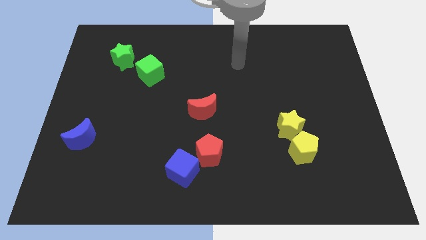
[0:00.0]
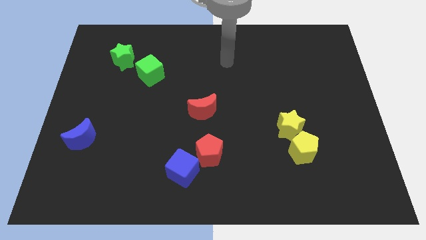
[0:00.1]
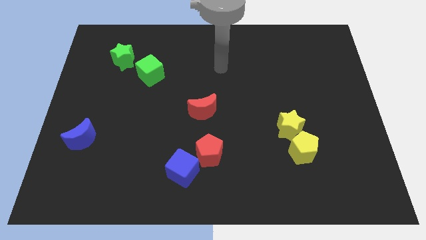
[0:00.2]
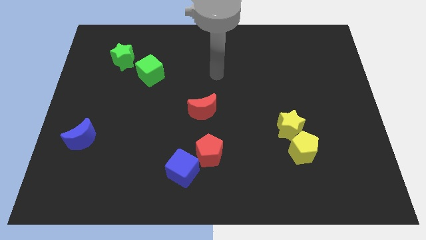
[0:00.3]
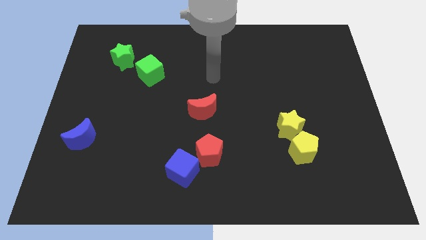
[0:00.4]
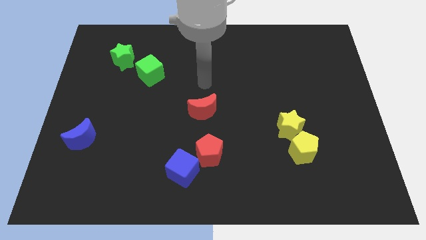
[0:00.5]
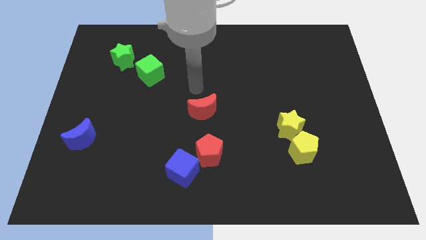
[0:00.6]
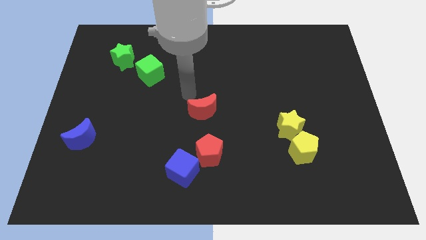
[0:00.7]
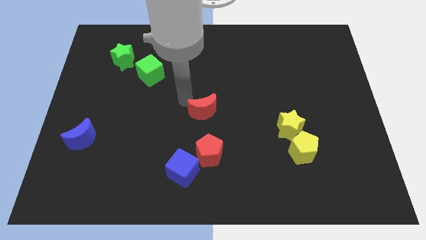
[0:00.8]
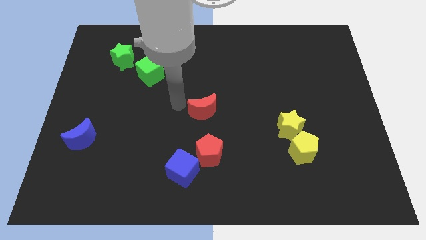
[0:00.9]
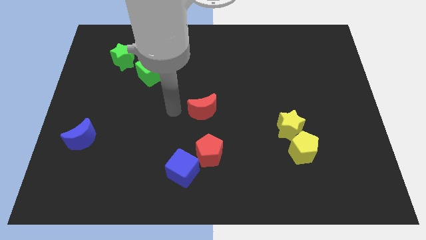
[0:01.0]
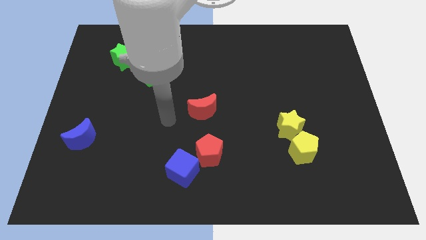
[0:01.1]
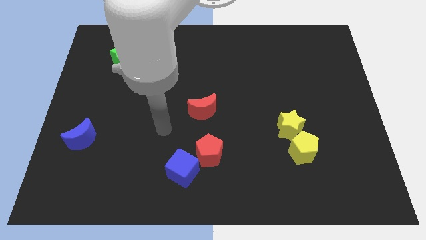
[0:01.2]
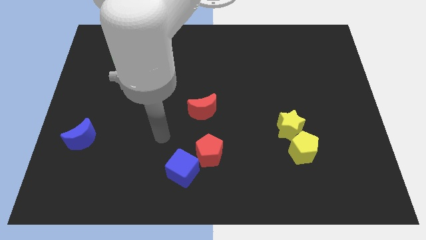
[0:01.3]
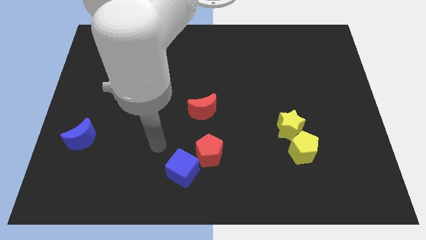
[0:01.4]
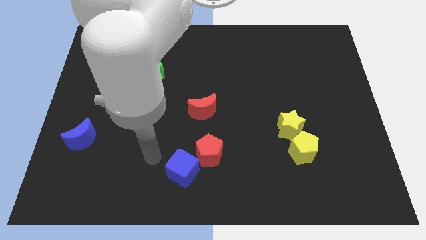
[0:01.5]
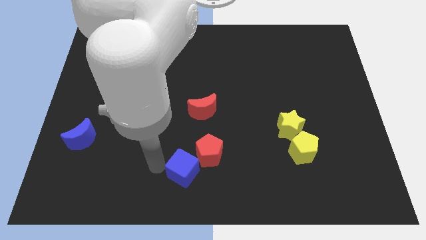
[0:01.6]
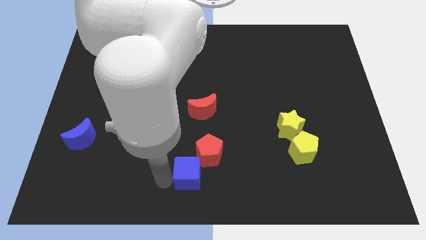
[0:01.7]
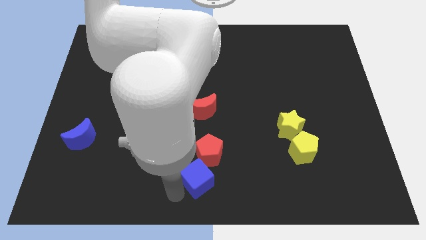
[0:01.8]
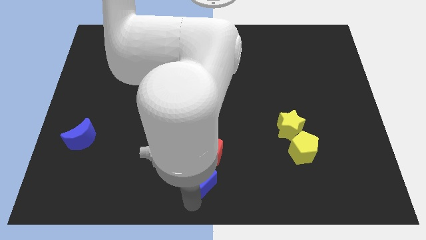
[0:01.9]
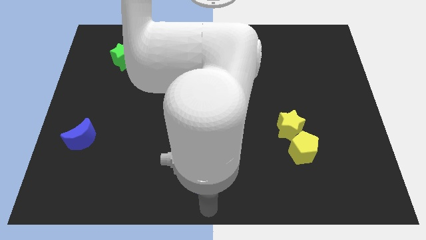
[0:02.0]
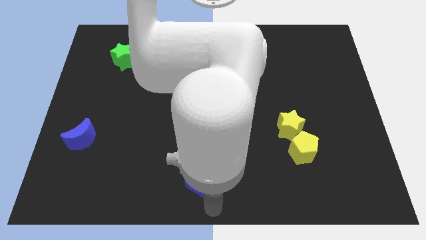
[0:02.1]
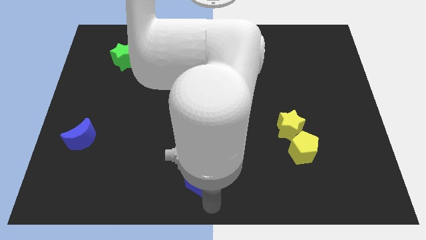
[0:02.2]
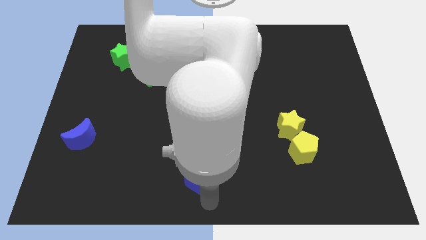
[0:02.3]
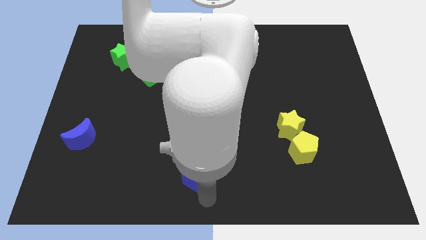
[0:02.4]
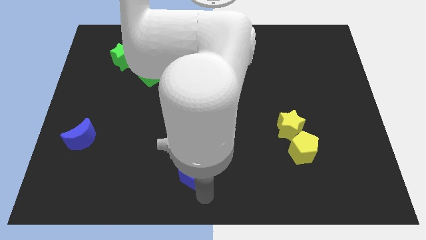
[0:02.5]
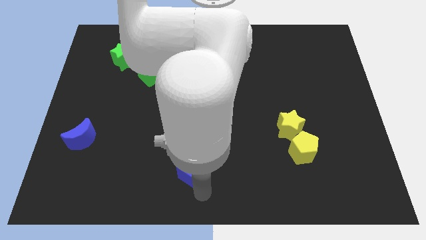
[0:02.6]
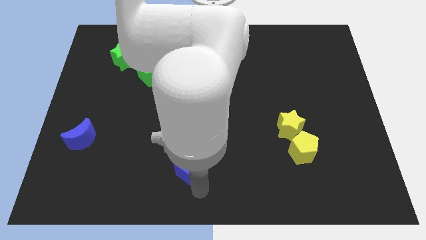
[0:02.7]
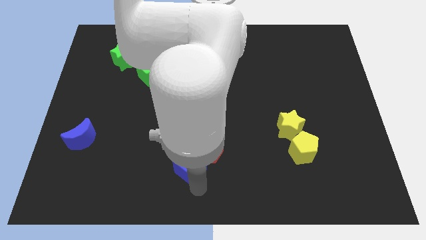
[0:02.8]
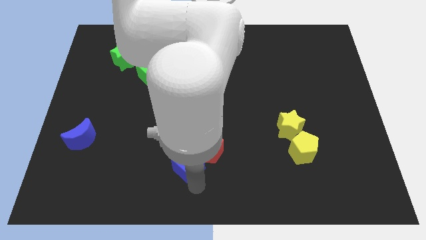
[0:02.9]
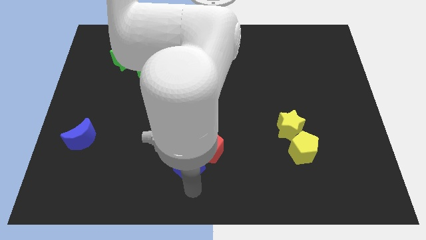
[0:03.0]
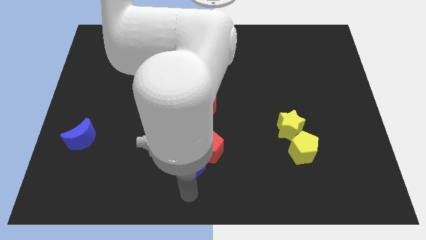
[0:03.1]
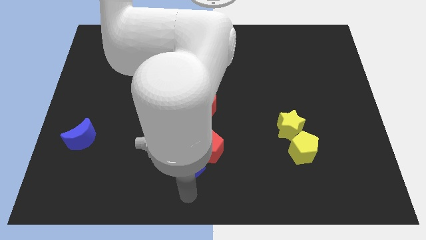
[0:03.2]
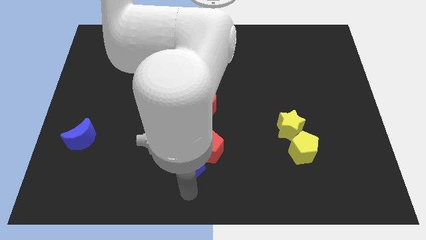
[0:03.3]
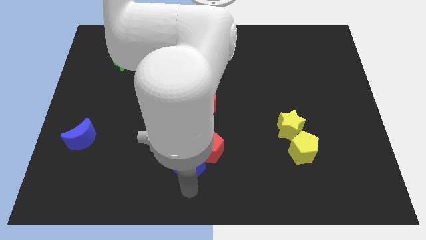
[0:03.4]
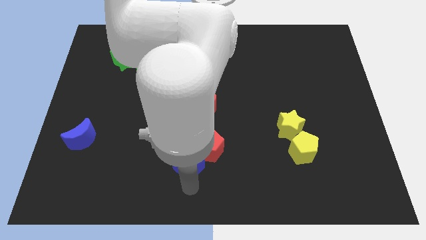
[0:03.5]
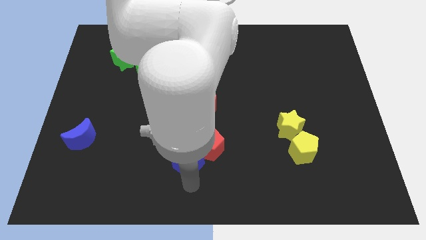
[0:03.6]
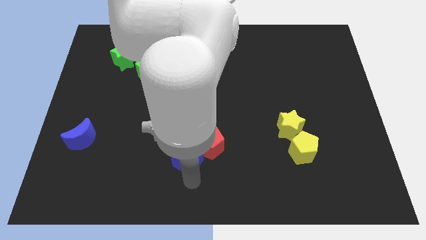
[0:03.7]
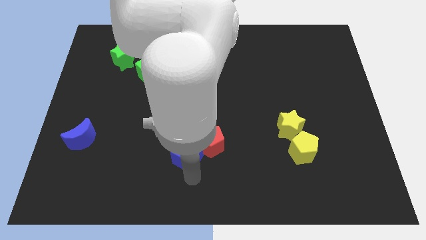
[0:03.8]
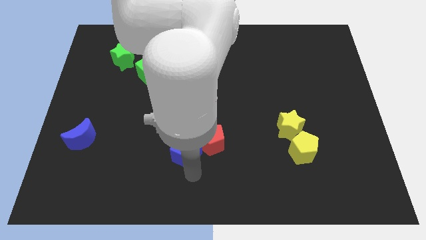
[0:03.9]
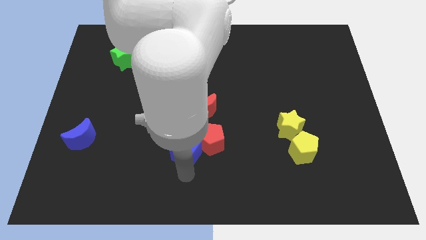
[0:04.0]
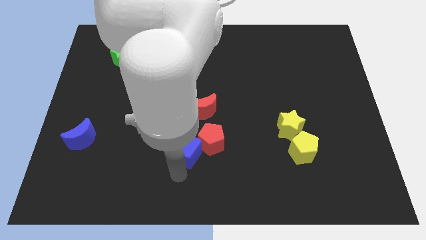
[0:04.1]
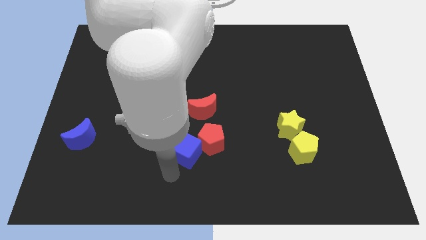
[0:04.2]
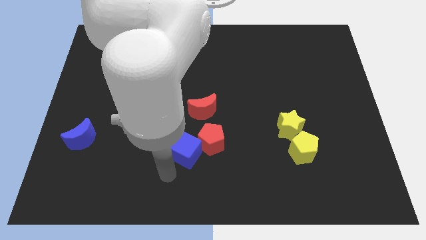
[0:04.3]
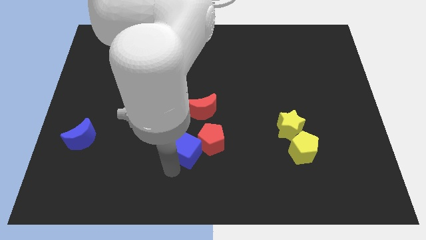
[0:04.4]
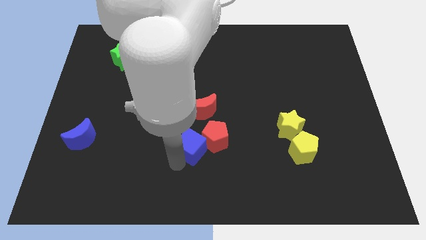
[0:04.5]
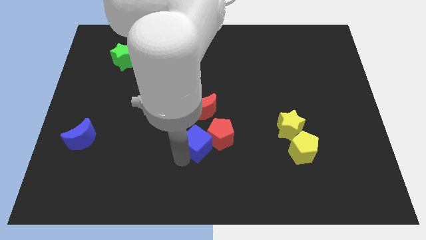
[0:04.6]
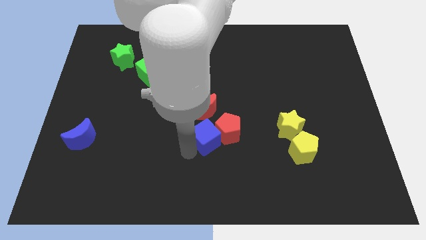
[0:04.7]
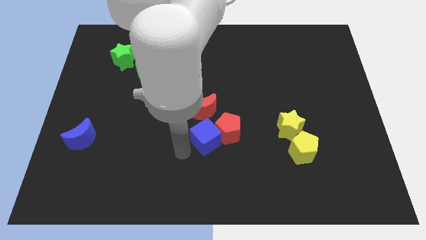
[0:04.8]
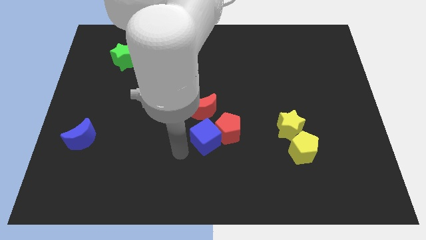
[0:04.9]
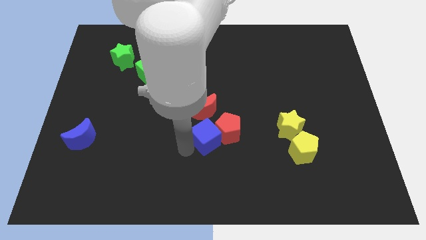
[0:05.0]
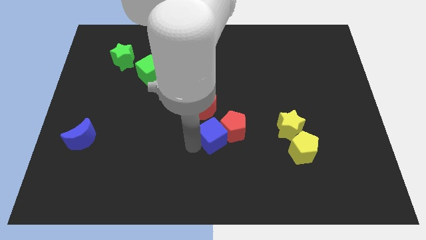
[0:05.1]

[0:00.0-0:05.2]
push the blue cube to the bottom right of the red moon
